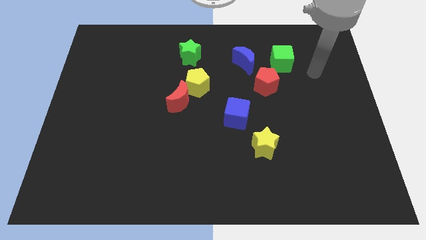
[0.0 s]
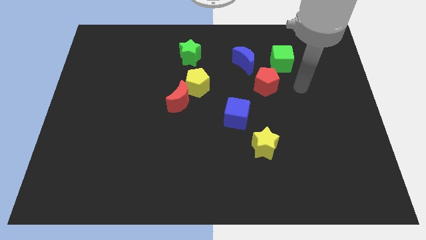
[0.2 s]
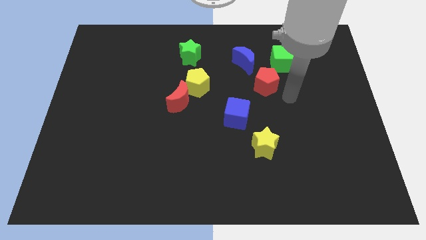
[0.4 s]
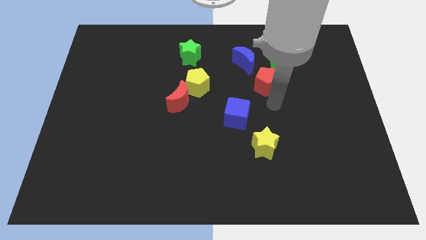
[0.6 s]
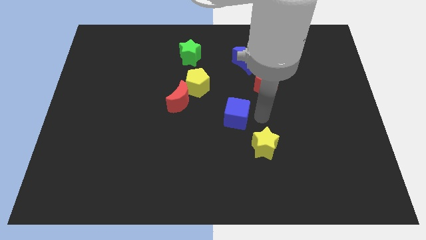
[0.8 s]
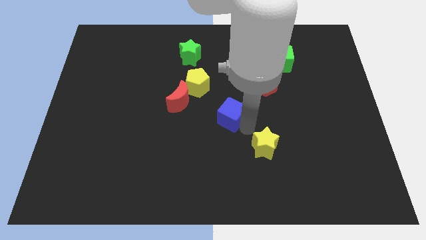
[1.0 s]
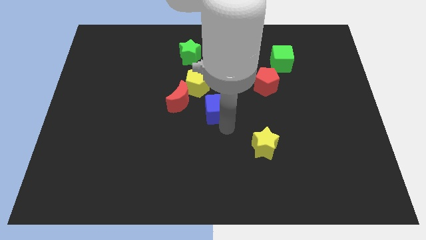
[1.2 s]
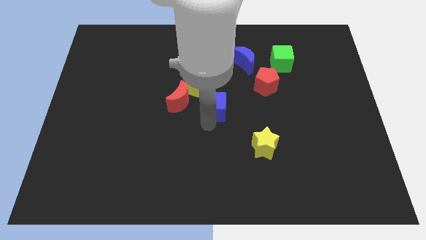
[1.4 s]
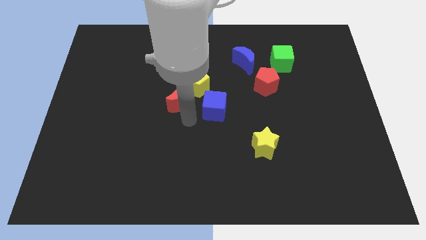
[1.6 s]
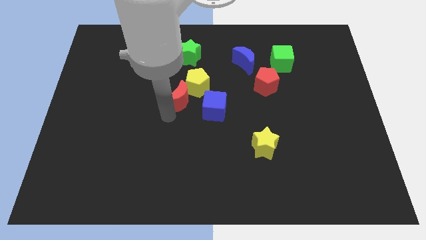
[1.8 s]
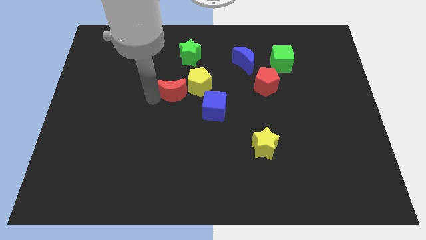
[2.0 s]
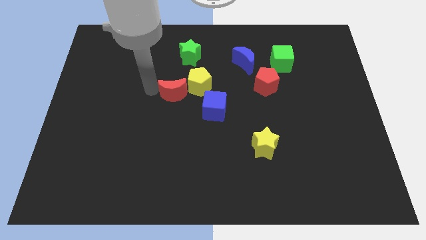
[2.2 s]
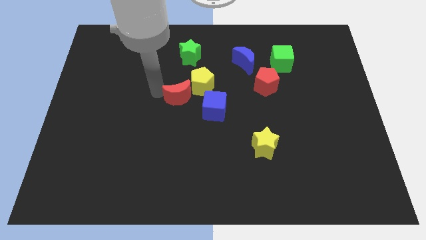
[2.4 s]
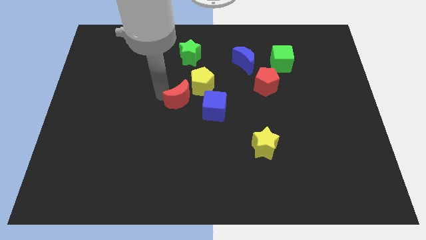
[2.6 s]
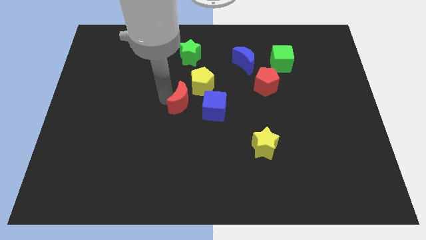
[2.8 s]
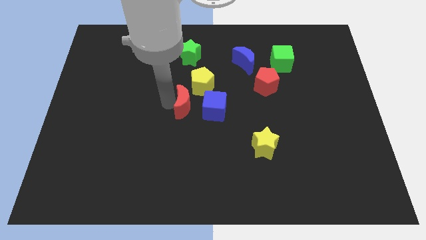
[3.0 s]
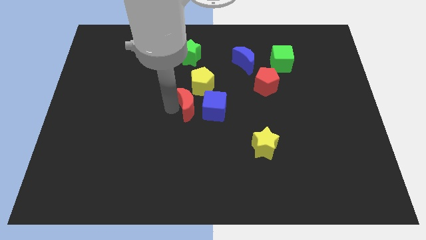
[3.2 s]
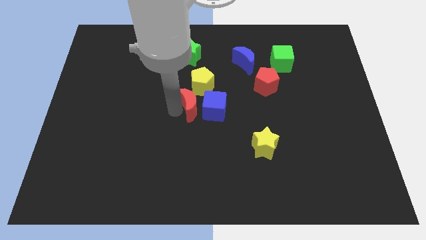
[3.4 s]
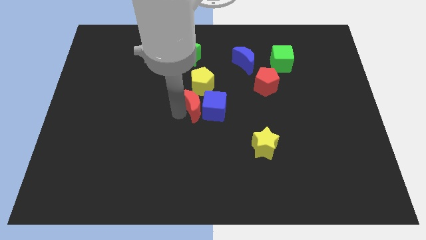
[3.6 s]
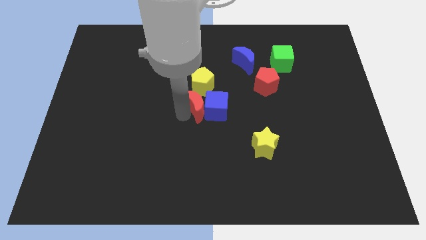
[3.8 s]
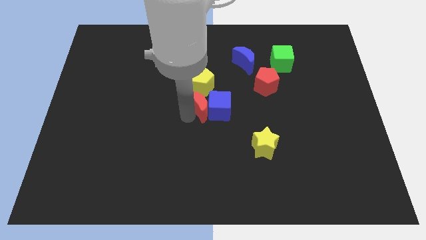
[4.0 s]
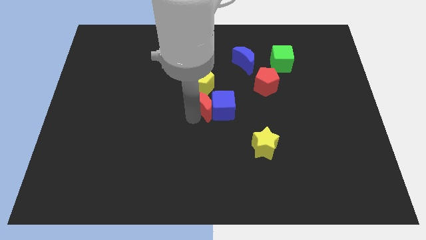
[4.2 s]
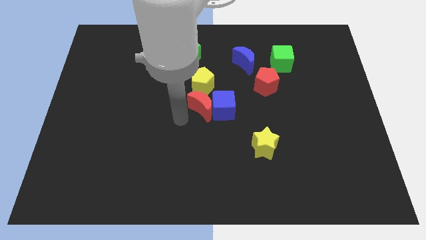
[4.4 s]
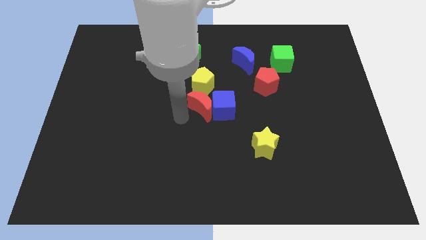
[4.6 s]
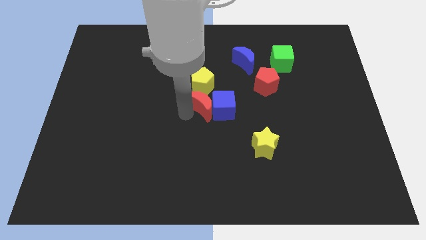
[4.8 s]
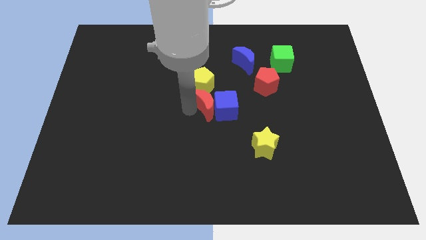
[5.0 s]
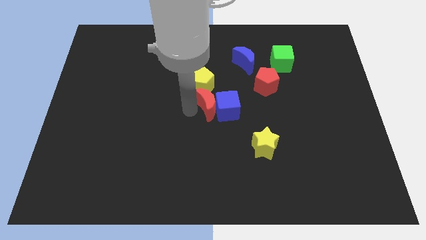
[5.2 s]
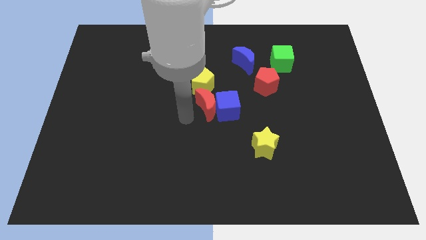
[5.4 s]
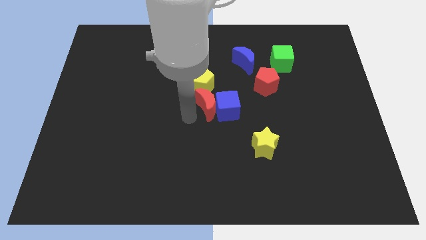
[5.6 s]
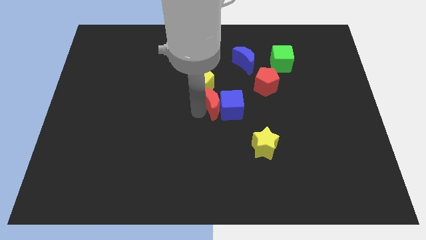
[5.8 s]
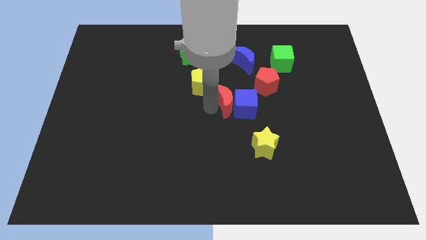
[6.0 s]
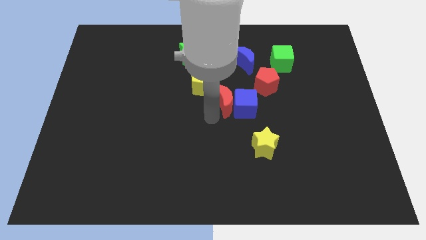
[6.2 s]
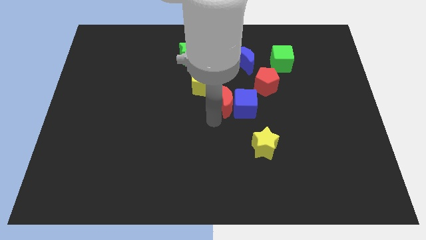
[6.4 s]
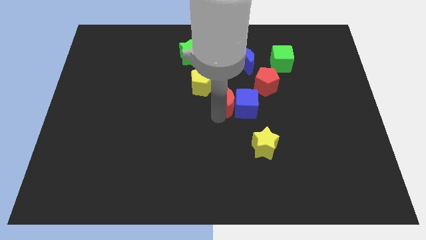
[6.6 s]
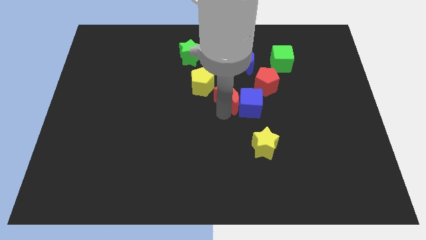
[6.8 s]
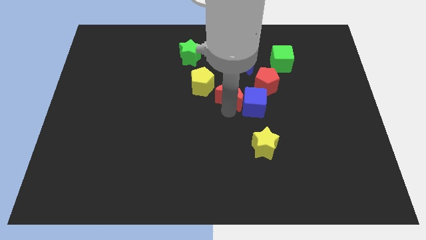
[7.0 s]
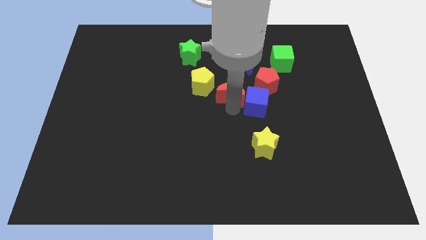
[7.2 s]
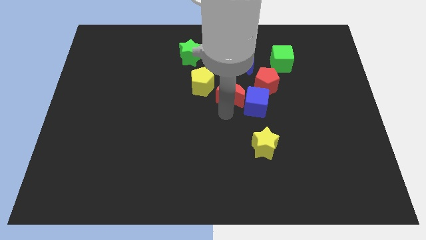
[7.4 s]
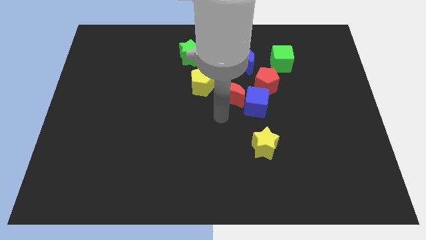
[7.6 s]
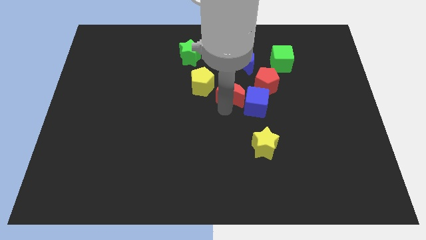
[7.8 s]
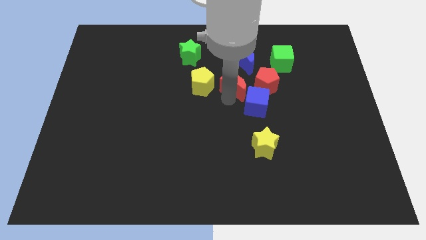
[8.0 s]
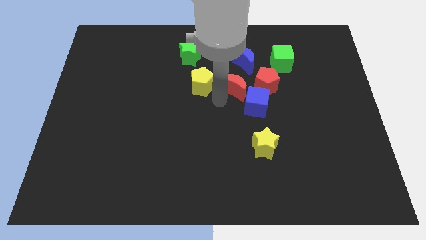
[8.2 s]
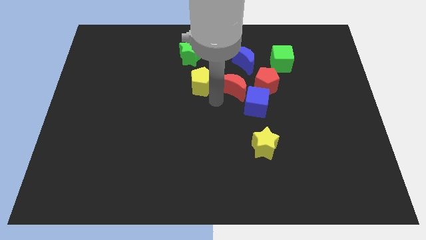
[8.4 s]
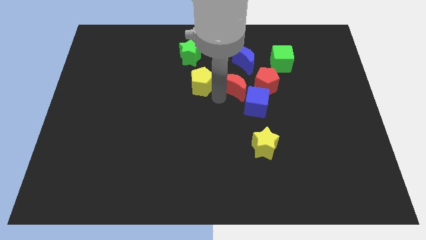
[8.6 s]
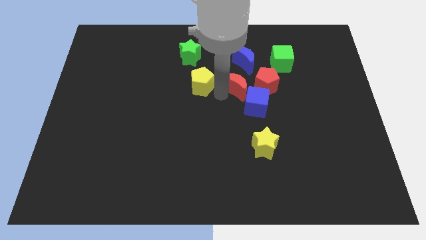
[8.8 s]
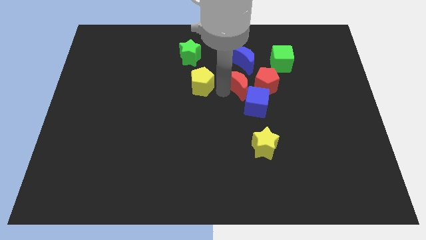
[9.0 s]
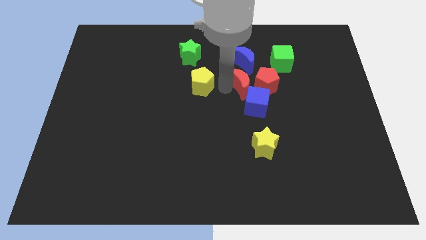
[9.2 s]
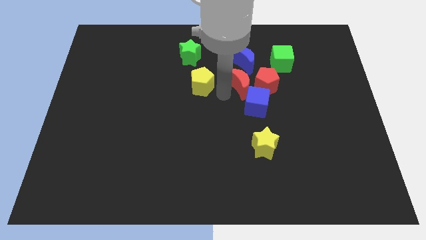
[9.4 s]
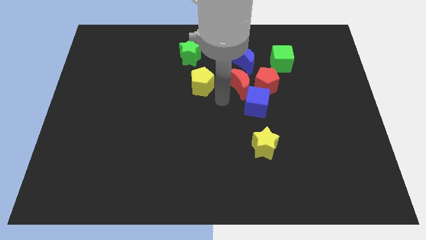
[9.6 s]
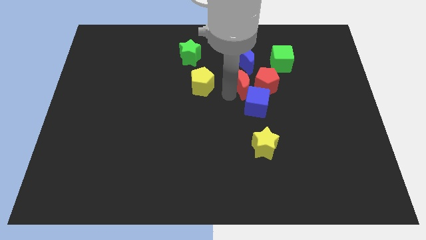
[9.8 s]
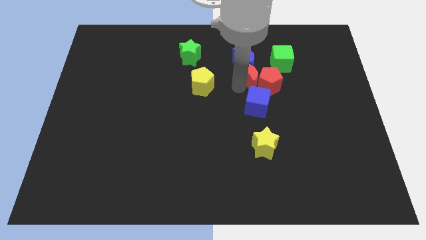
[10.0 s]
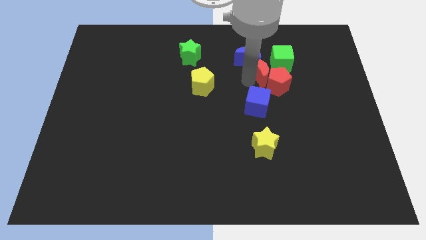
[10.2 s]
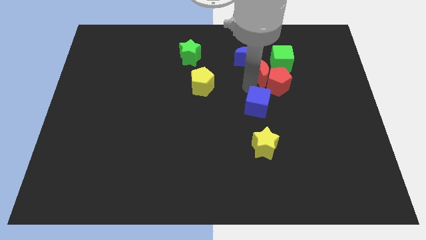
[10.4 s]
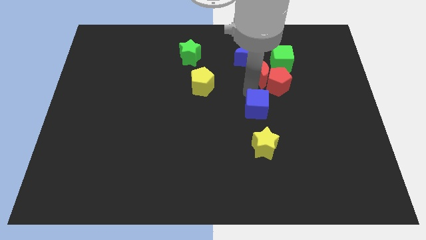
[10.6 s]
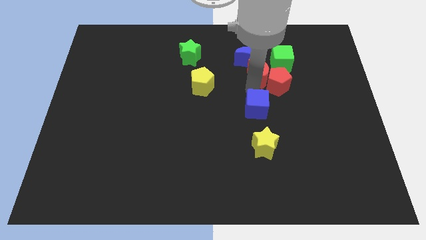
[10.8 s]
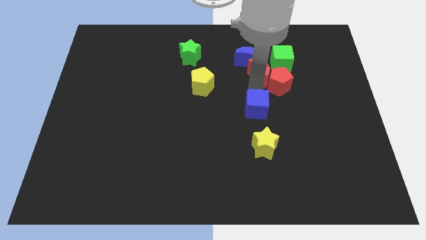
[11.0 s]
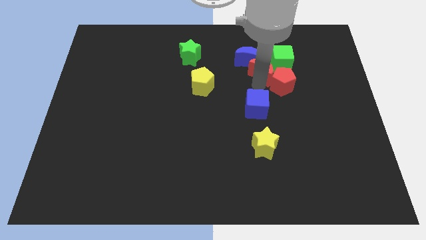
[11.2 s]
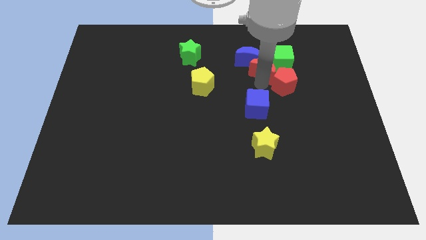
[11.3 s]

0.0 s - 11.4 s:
push the red moon next to the green cube

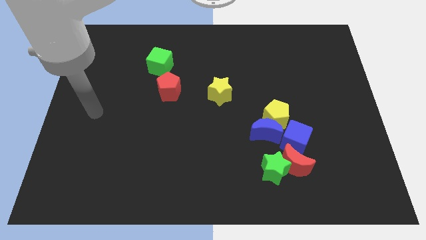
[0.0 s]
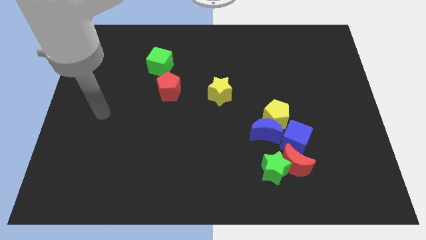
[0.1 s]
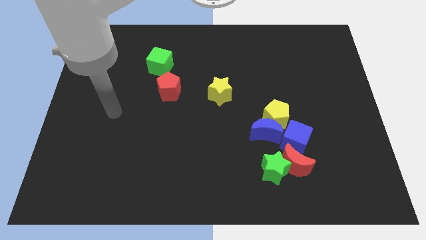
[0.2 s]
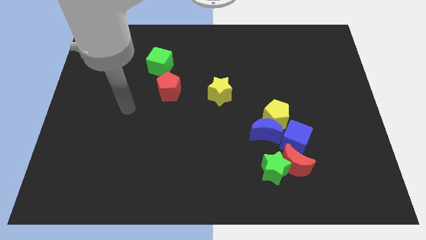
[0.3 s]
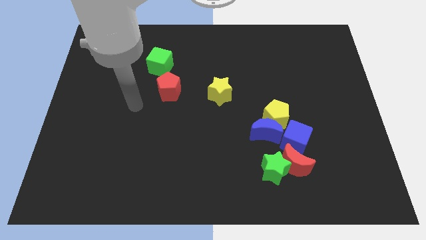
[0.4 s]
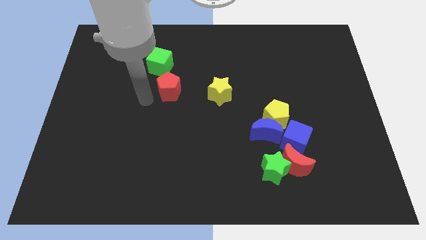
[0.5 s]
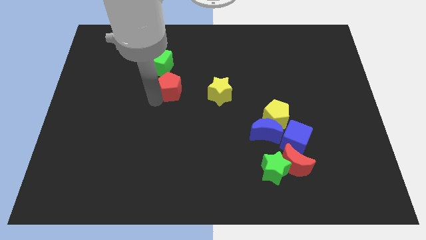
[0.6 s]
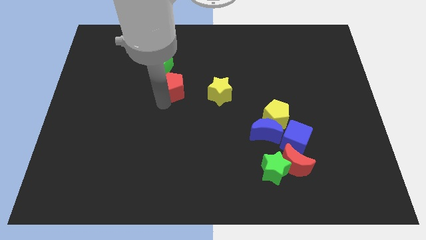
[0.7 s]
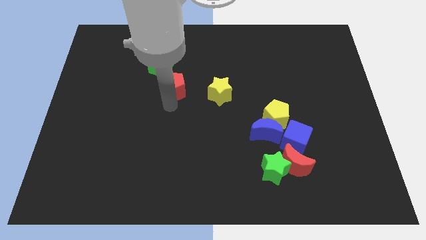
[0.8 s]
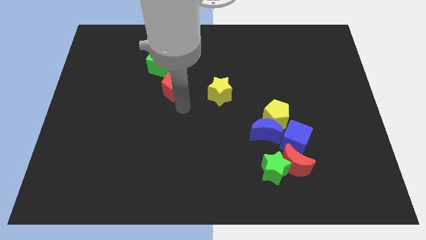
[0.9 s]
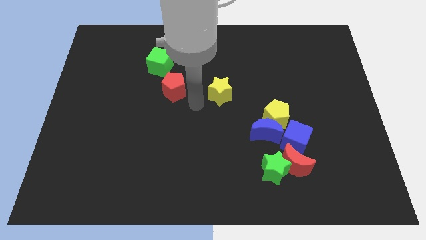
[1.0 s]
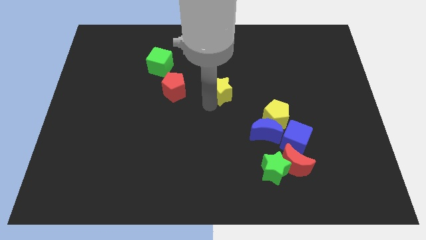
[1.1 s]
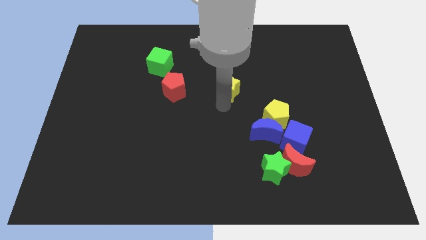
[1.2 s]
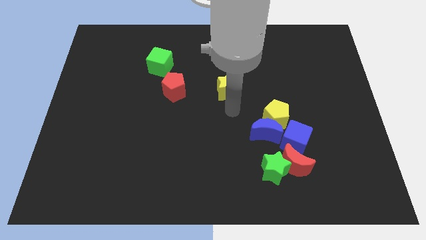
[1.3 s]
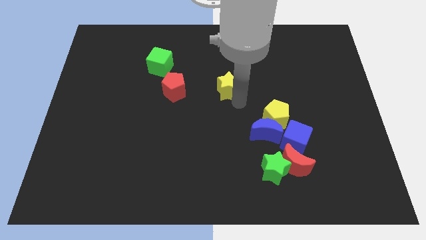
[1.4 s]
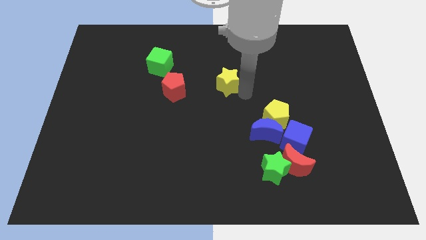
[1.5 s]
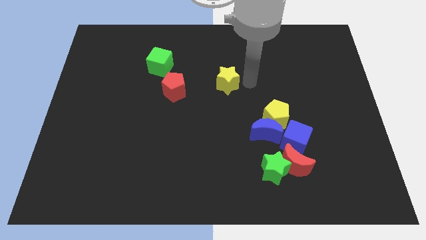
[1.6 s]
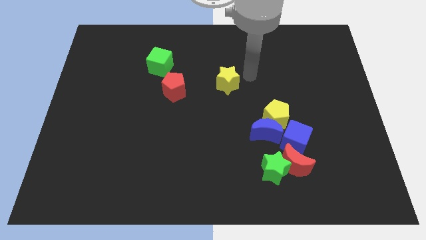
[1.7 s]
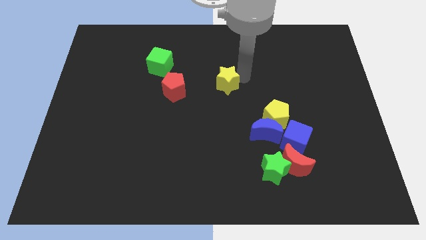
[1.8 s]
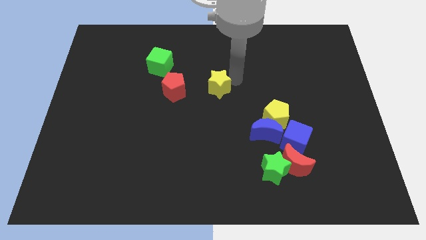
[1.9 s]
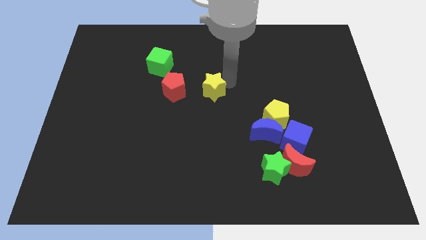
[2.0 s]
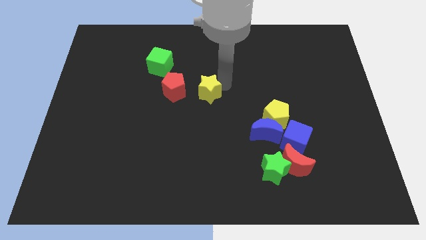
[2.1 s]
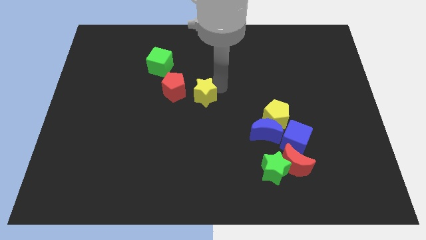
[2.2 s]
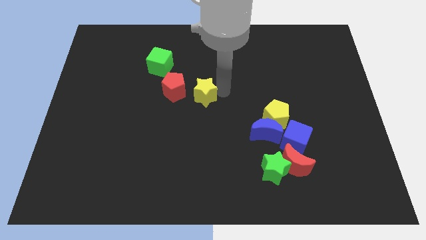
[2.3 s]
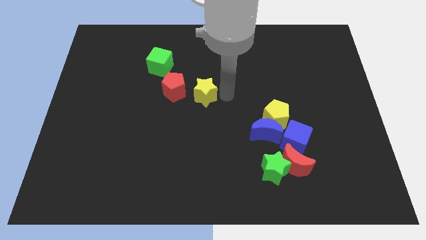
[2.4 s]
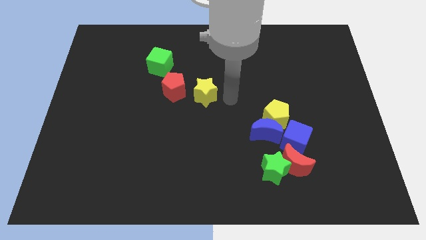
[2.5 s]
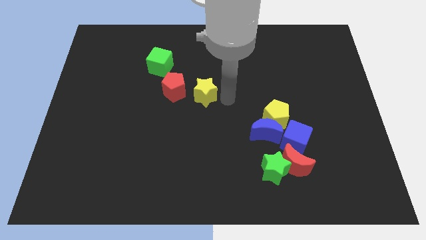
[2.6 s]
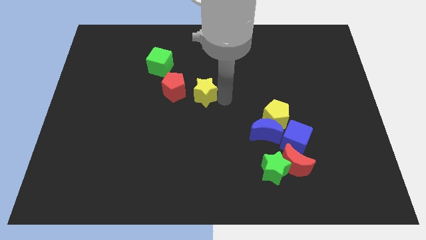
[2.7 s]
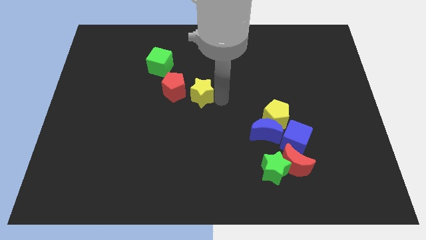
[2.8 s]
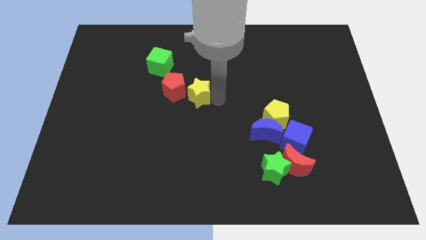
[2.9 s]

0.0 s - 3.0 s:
put the yellow star close to the red pentagon
